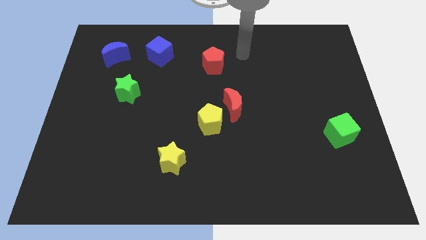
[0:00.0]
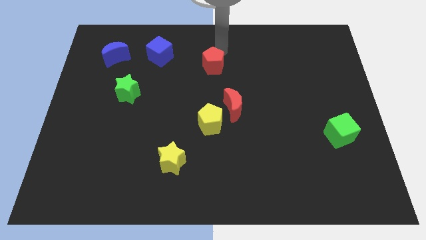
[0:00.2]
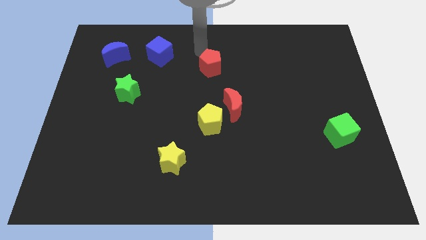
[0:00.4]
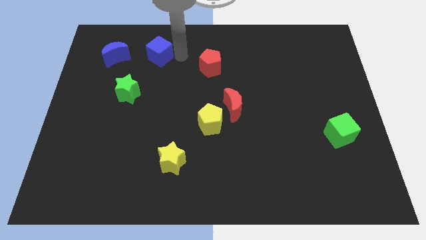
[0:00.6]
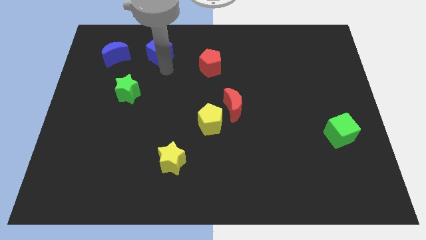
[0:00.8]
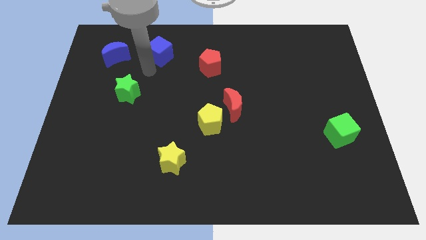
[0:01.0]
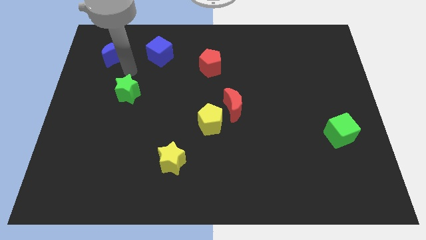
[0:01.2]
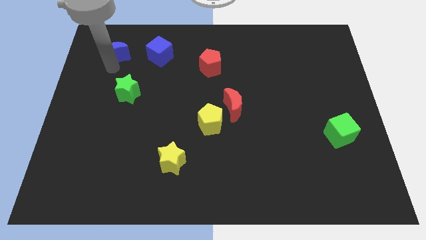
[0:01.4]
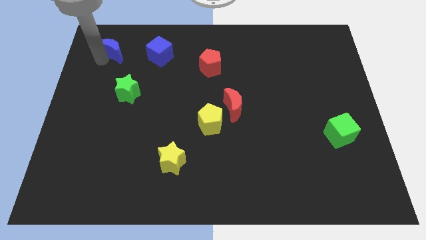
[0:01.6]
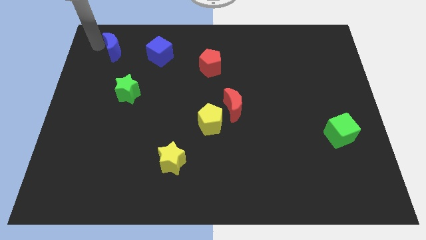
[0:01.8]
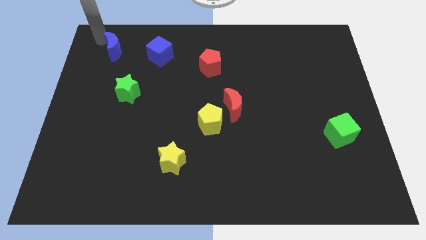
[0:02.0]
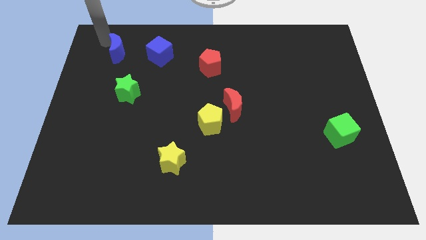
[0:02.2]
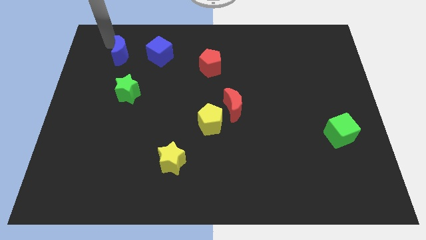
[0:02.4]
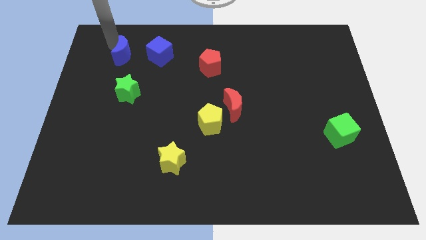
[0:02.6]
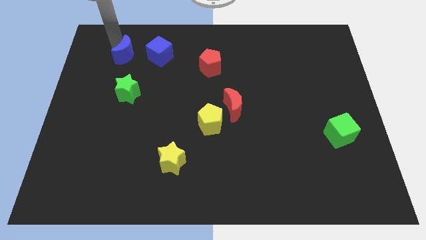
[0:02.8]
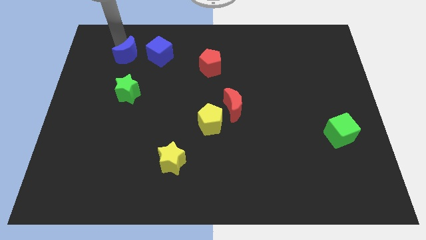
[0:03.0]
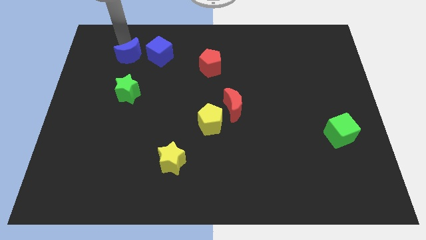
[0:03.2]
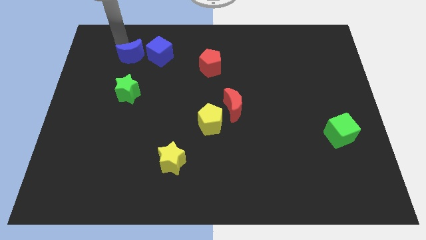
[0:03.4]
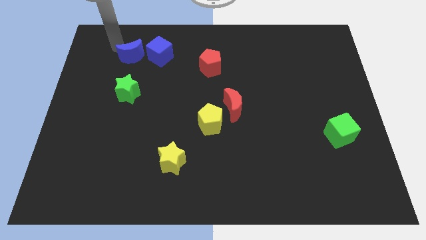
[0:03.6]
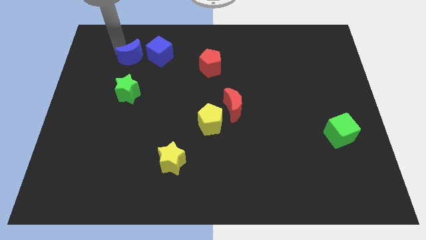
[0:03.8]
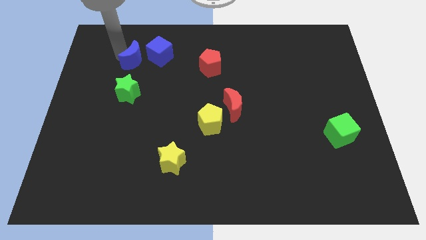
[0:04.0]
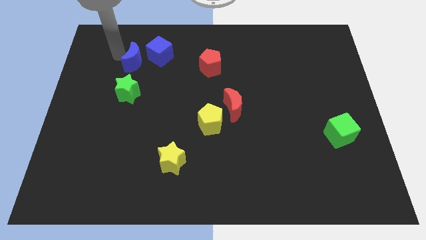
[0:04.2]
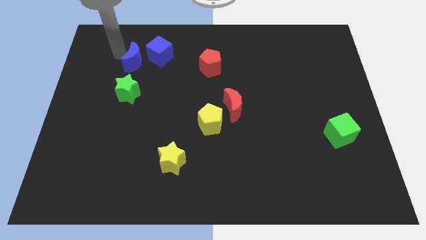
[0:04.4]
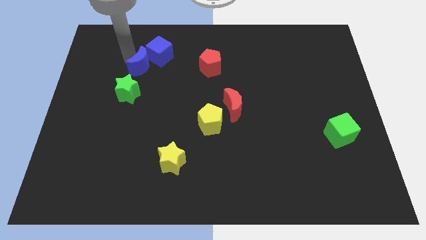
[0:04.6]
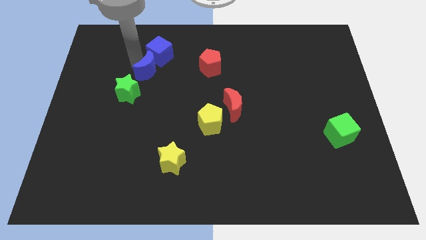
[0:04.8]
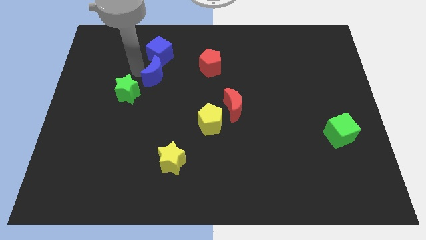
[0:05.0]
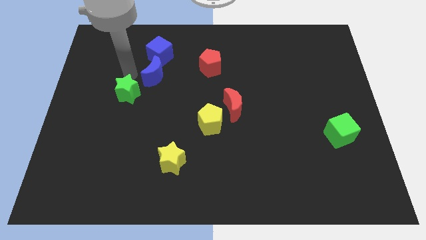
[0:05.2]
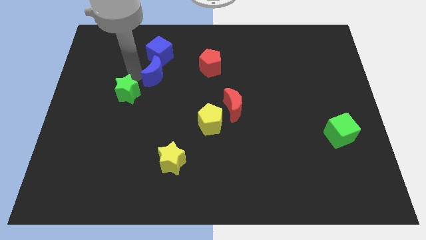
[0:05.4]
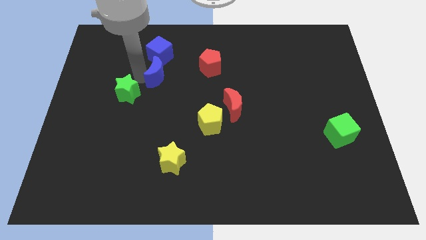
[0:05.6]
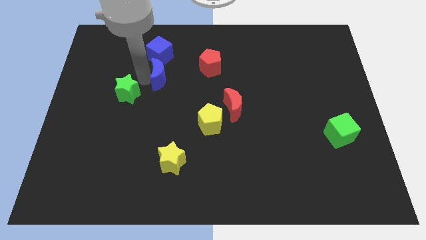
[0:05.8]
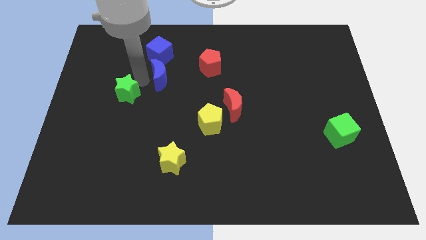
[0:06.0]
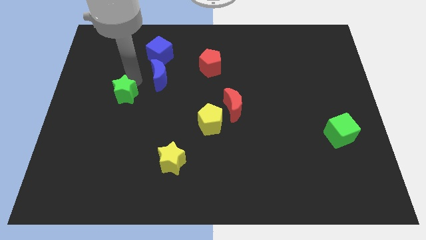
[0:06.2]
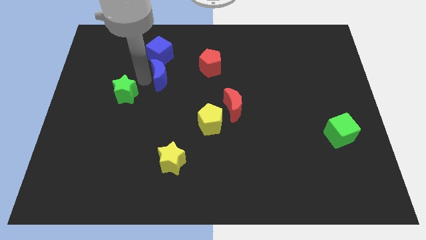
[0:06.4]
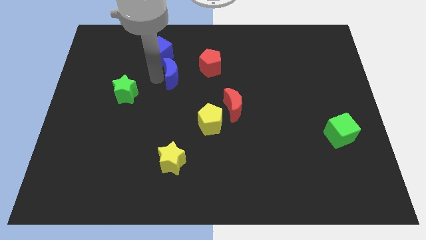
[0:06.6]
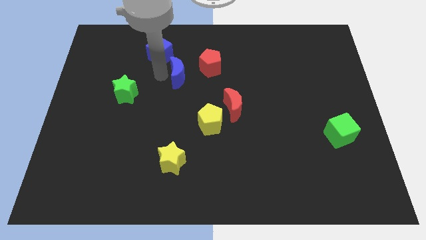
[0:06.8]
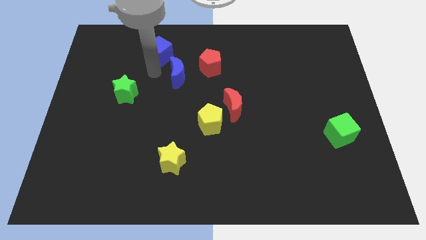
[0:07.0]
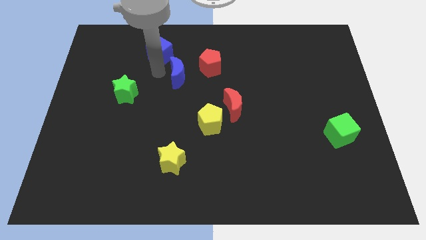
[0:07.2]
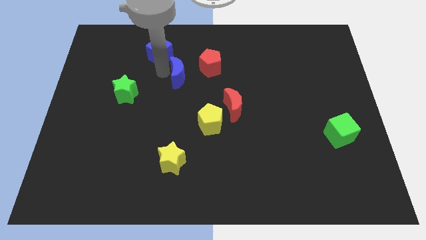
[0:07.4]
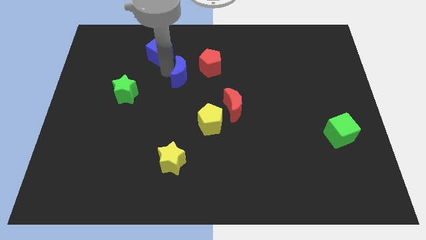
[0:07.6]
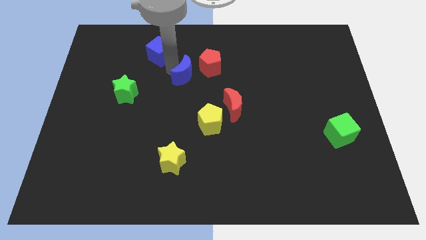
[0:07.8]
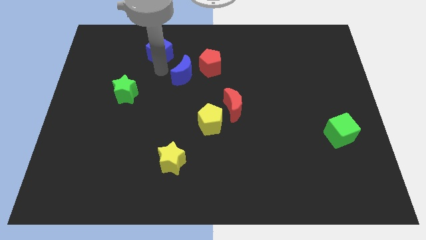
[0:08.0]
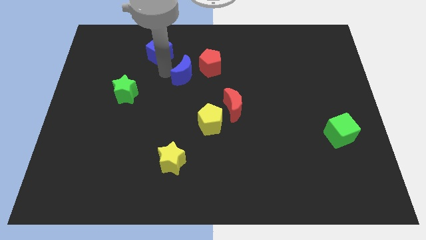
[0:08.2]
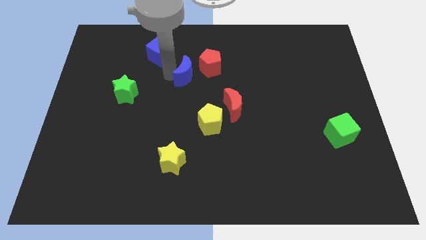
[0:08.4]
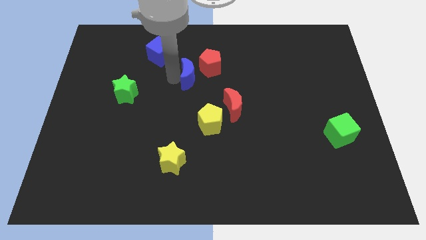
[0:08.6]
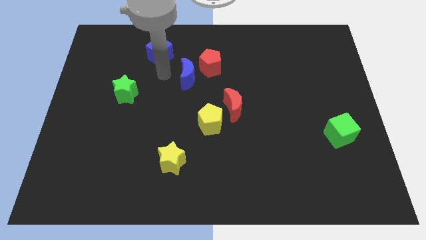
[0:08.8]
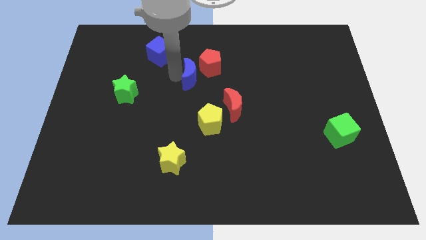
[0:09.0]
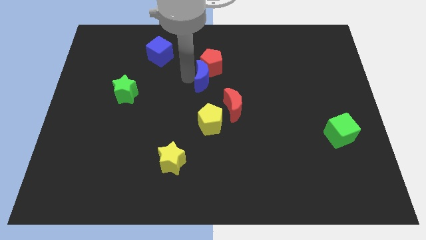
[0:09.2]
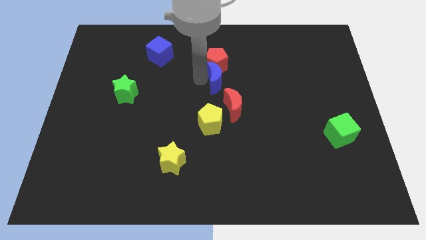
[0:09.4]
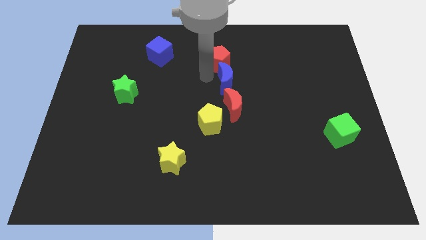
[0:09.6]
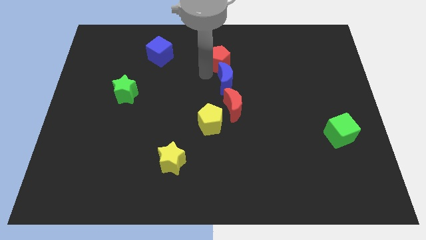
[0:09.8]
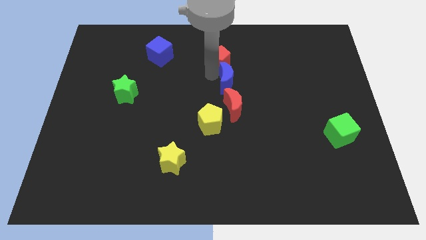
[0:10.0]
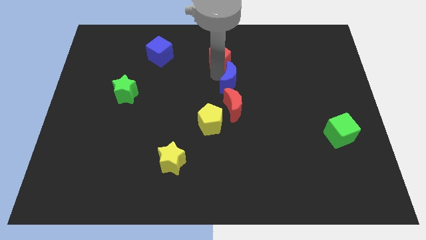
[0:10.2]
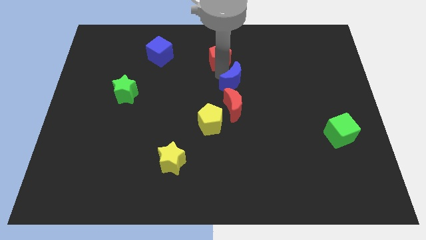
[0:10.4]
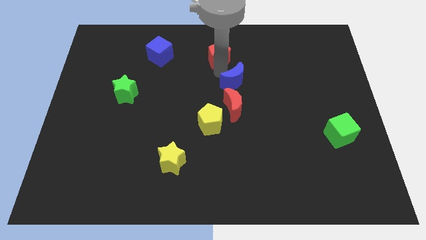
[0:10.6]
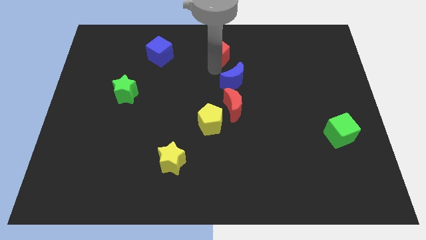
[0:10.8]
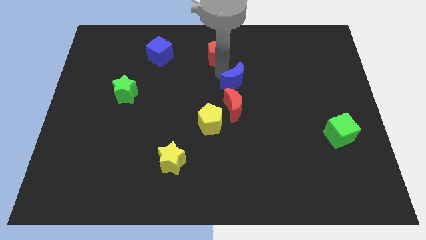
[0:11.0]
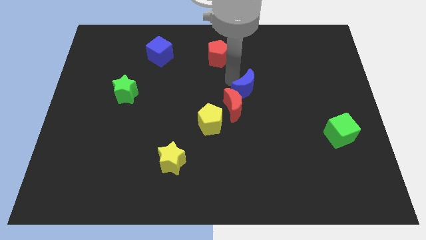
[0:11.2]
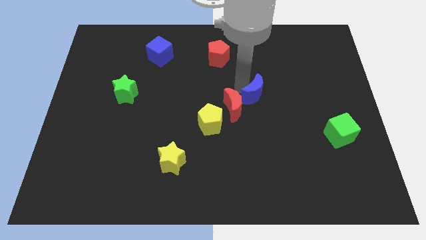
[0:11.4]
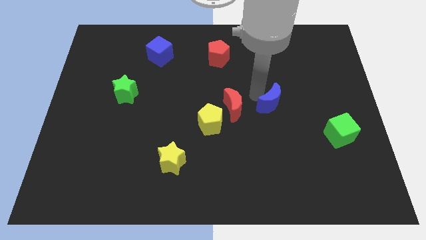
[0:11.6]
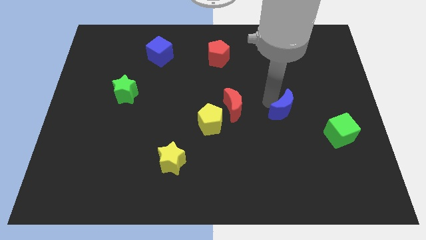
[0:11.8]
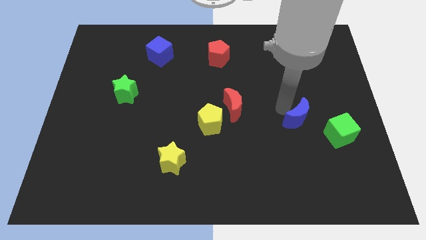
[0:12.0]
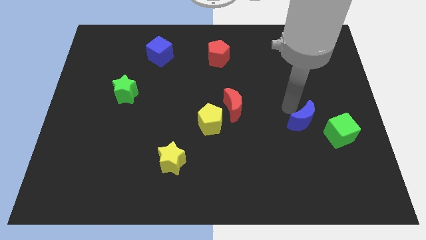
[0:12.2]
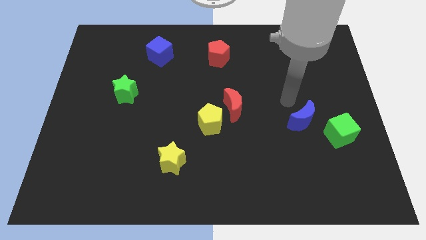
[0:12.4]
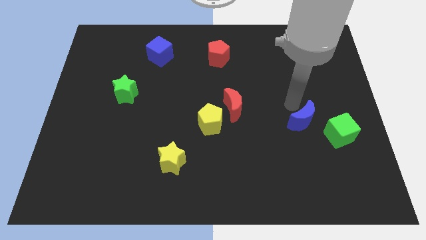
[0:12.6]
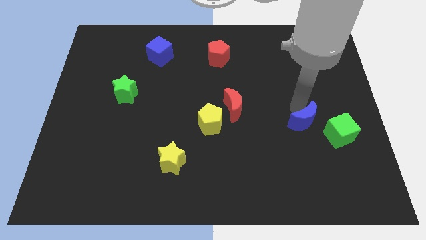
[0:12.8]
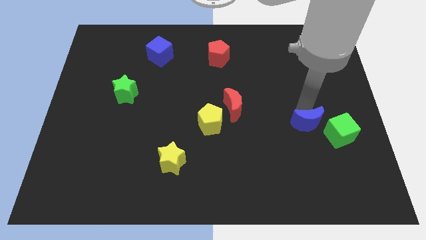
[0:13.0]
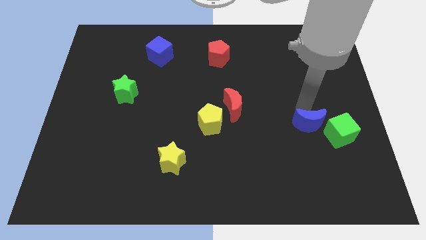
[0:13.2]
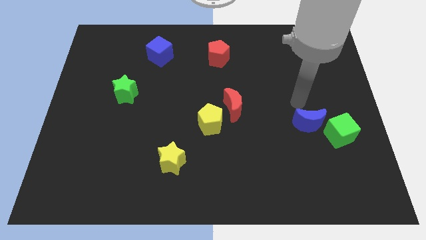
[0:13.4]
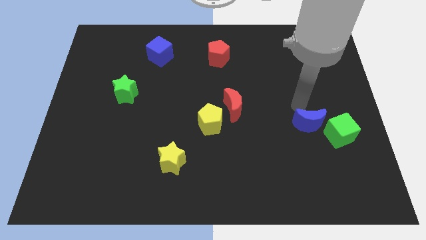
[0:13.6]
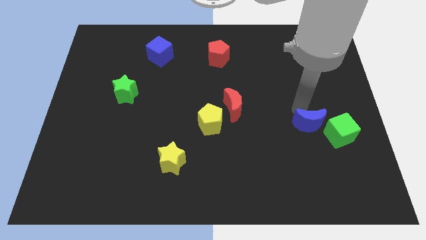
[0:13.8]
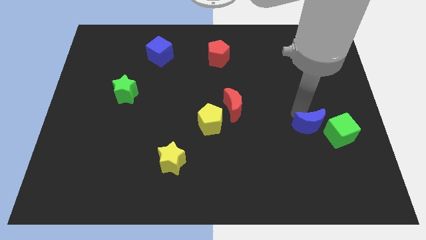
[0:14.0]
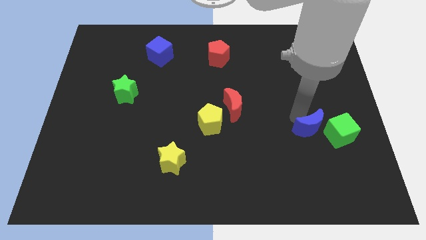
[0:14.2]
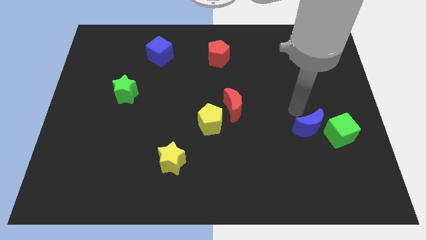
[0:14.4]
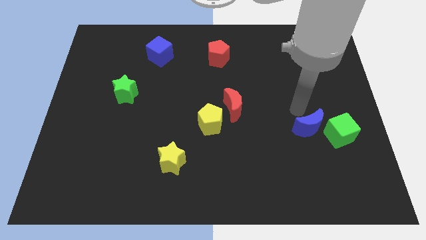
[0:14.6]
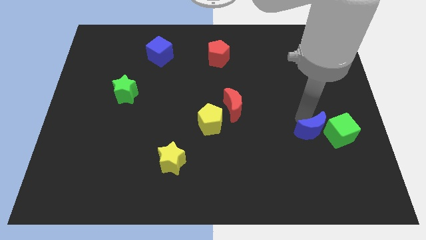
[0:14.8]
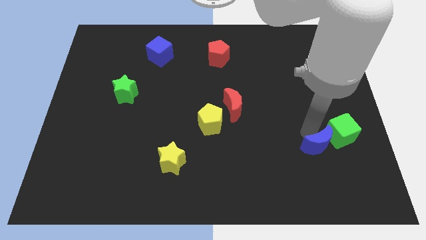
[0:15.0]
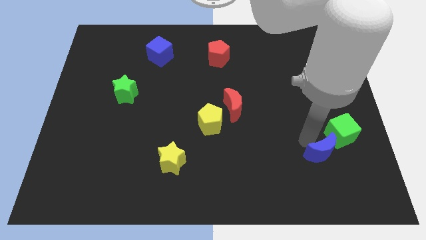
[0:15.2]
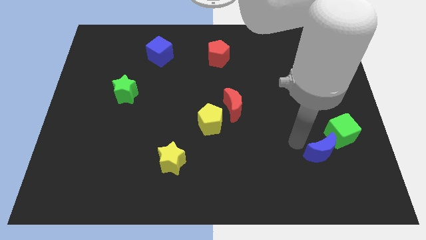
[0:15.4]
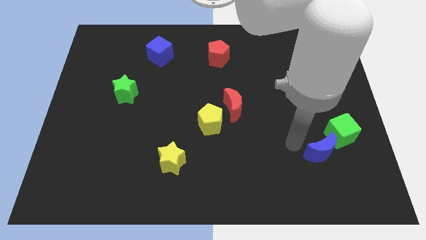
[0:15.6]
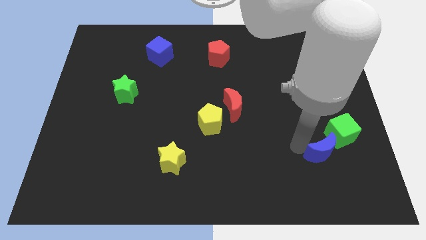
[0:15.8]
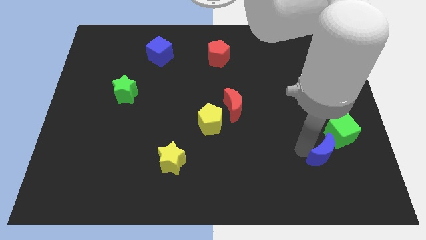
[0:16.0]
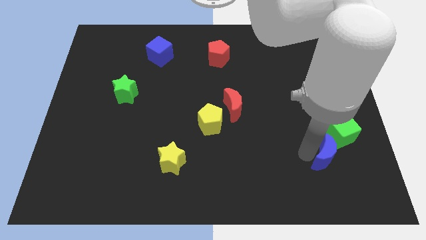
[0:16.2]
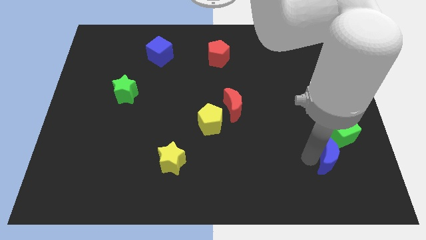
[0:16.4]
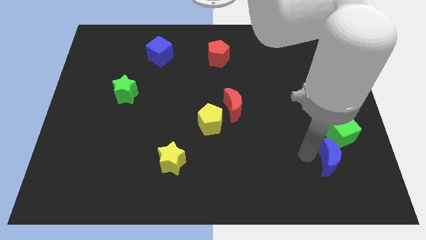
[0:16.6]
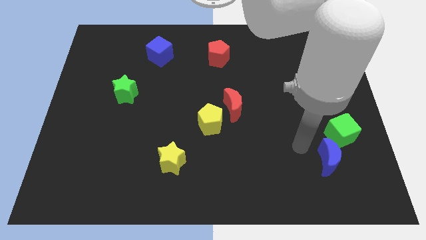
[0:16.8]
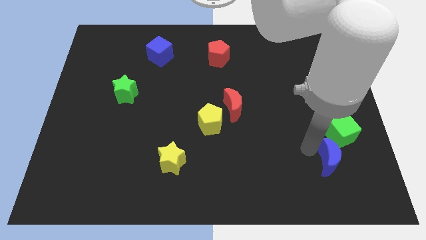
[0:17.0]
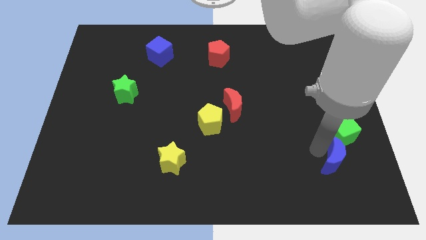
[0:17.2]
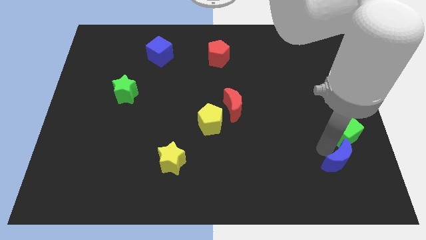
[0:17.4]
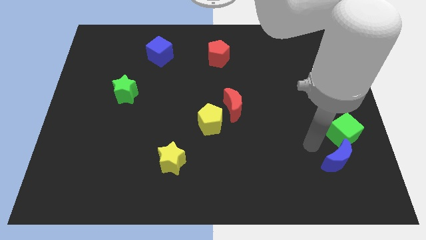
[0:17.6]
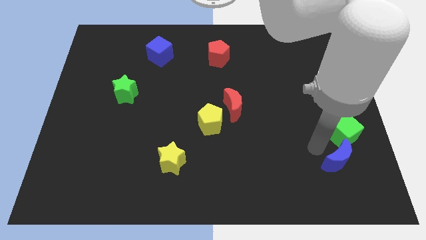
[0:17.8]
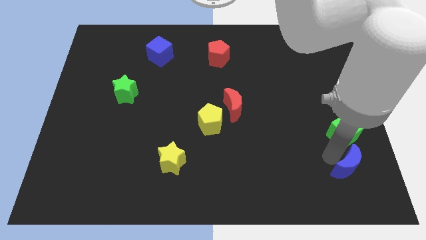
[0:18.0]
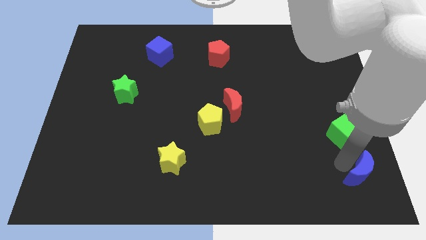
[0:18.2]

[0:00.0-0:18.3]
push the blue moon to the lower right corner
